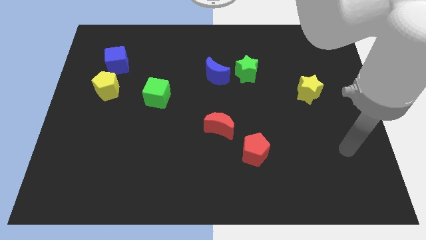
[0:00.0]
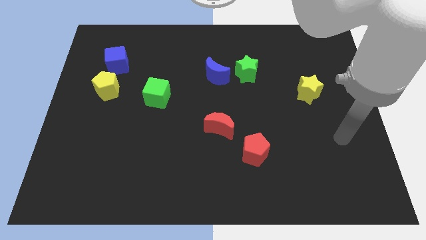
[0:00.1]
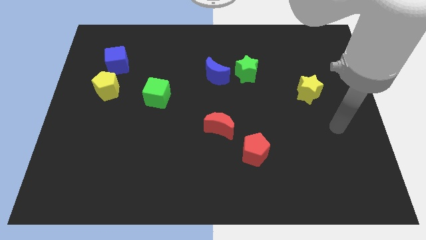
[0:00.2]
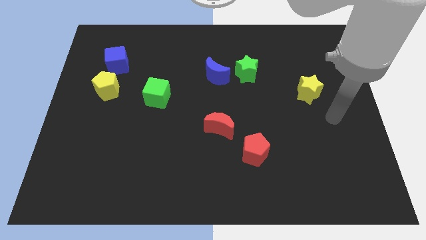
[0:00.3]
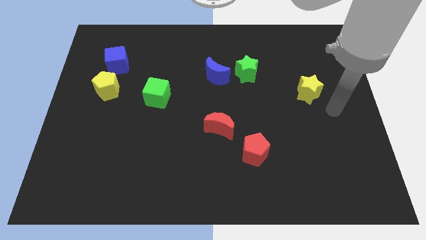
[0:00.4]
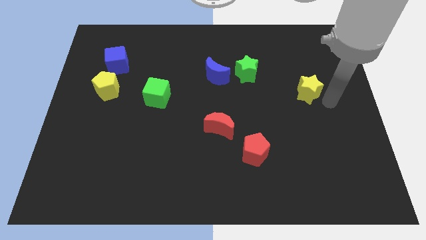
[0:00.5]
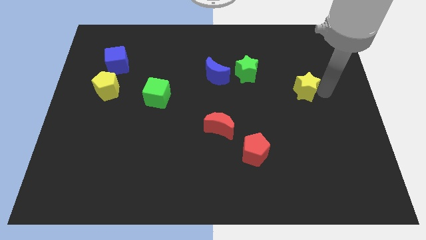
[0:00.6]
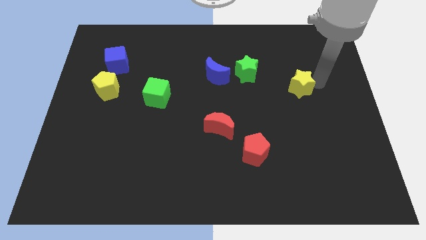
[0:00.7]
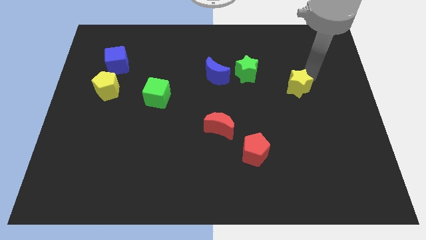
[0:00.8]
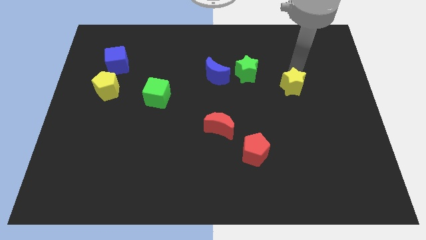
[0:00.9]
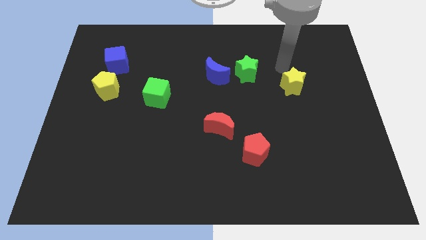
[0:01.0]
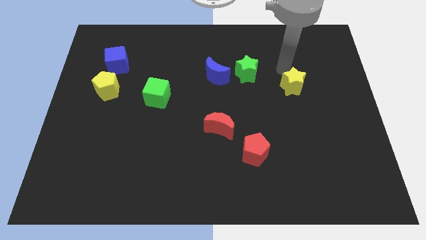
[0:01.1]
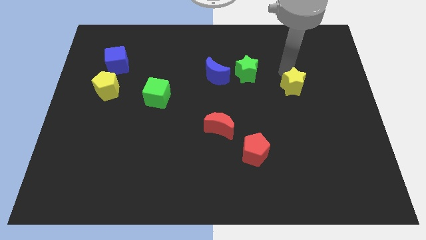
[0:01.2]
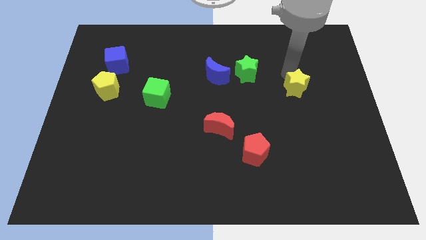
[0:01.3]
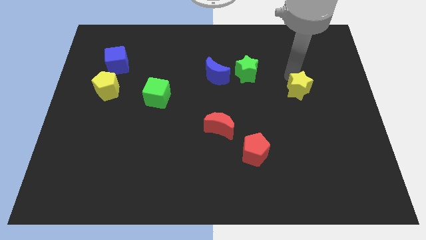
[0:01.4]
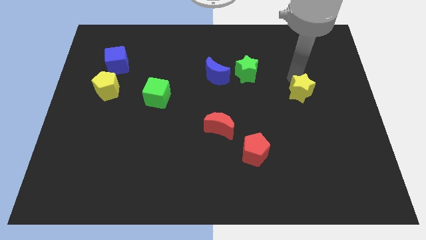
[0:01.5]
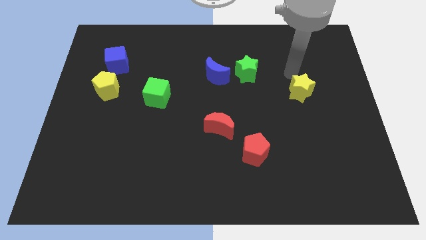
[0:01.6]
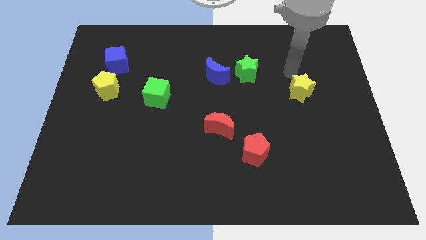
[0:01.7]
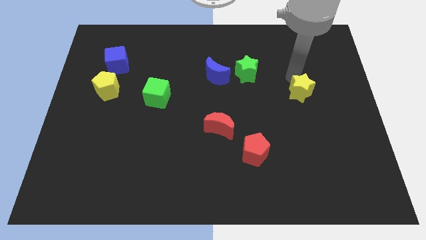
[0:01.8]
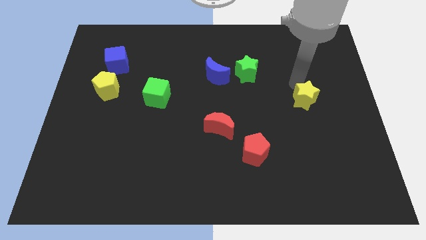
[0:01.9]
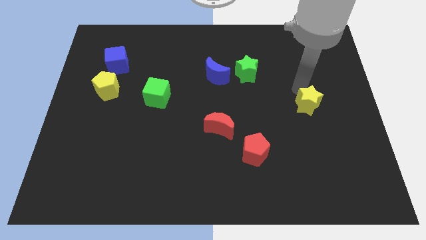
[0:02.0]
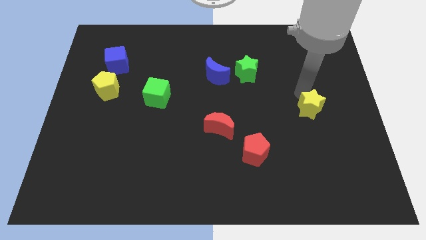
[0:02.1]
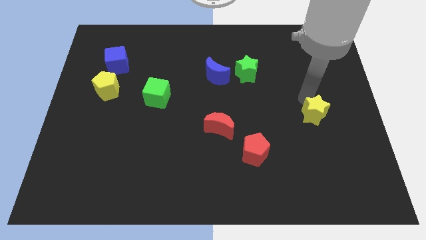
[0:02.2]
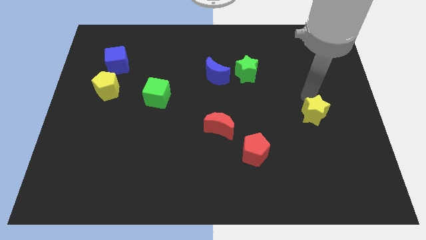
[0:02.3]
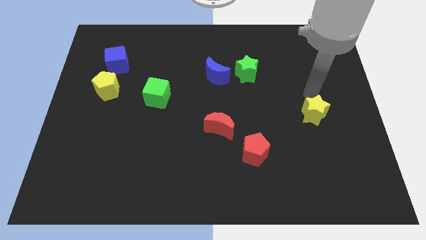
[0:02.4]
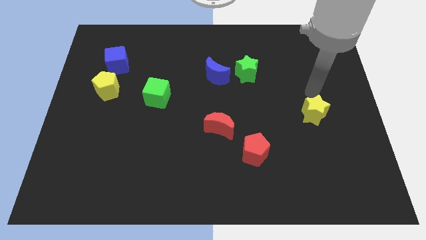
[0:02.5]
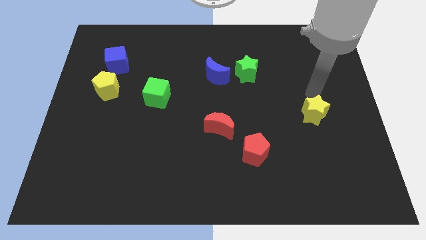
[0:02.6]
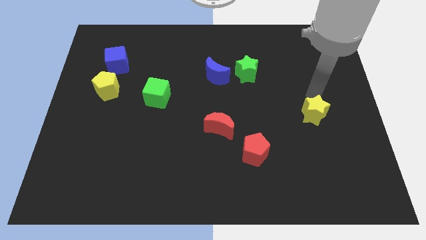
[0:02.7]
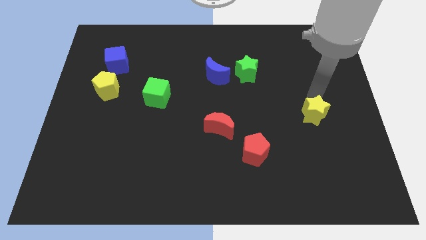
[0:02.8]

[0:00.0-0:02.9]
slightly push the yellow star down

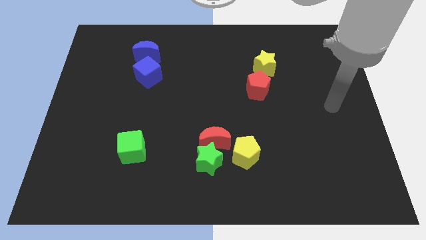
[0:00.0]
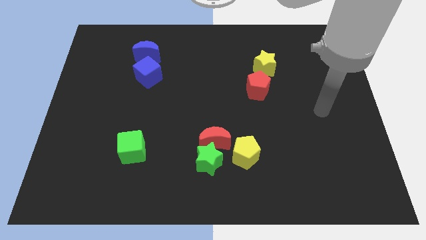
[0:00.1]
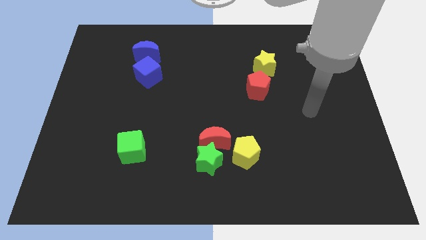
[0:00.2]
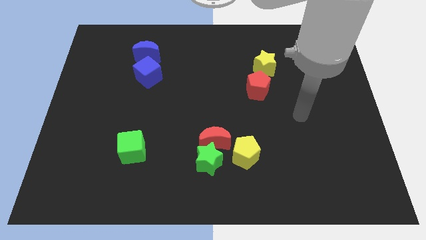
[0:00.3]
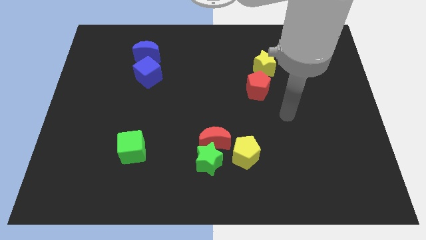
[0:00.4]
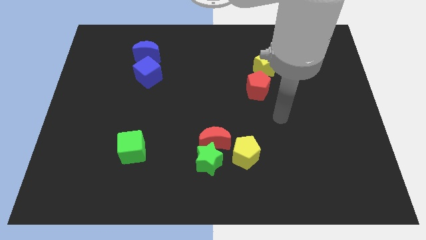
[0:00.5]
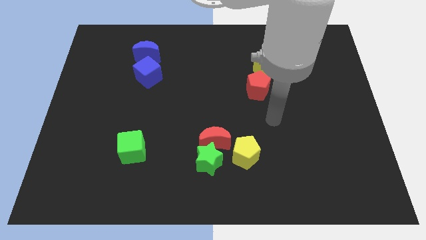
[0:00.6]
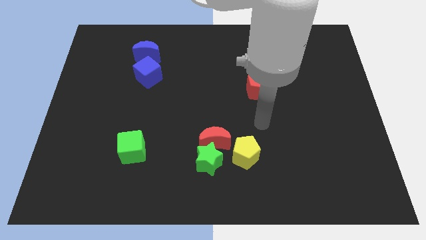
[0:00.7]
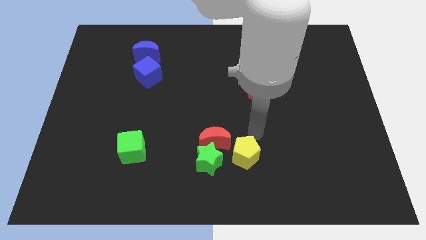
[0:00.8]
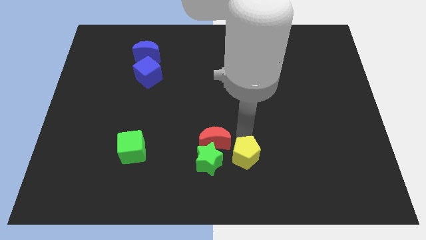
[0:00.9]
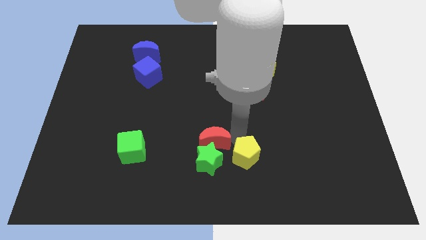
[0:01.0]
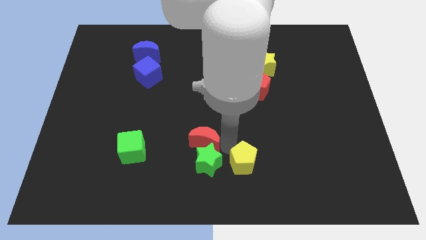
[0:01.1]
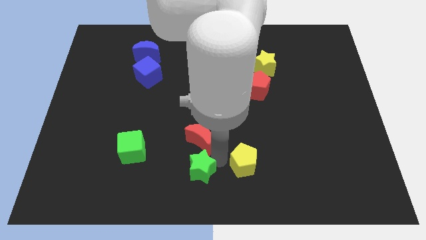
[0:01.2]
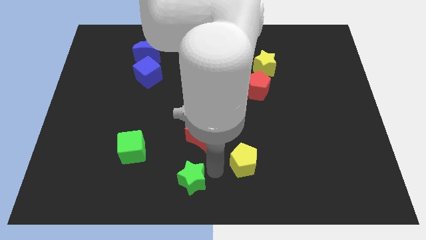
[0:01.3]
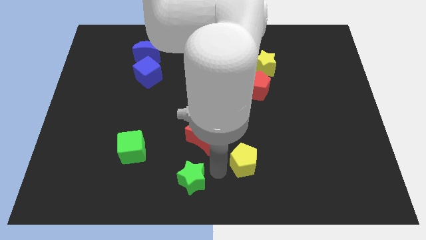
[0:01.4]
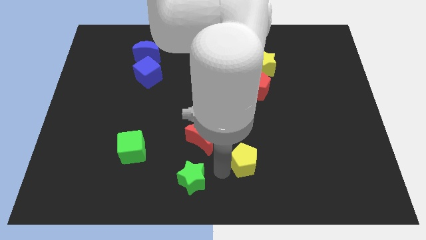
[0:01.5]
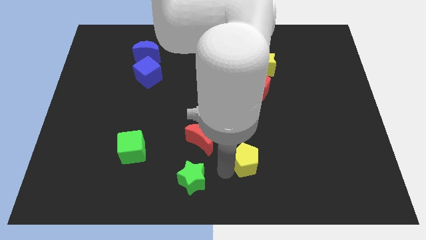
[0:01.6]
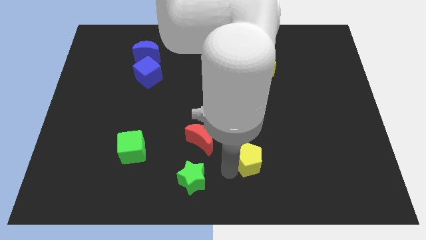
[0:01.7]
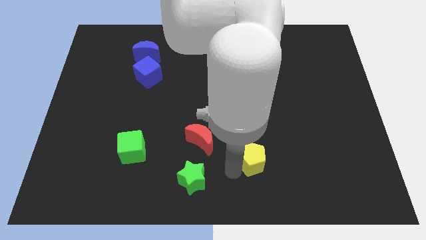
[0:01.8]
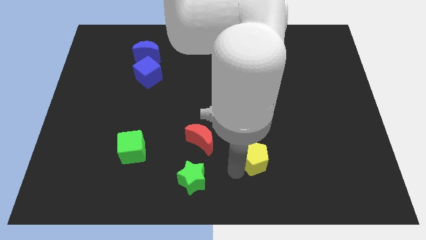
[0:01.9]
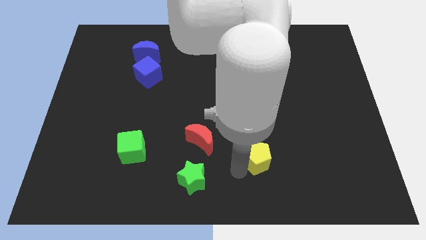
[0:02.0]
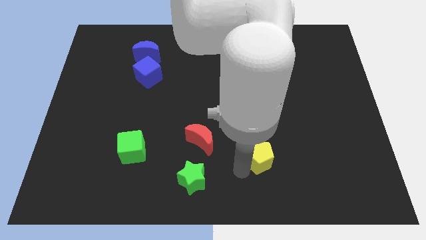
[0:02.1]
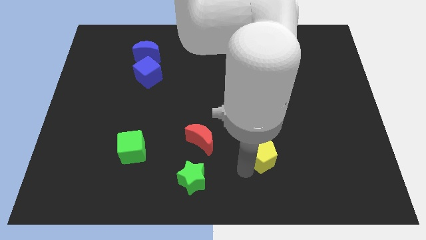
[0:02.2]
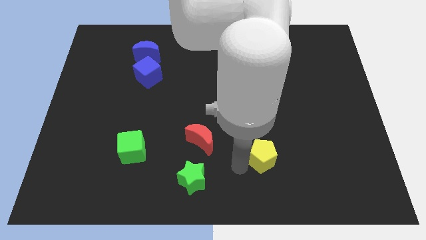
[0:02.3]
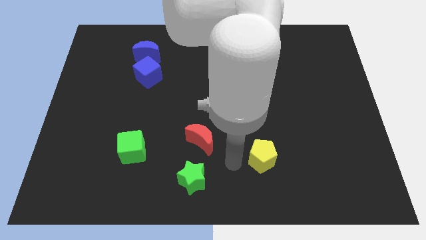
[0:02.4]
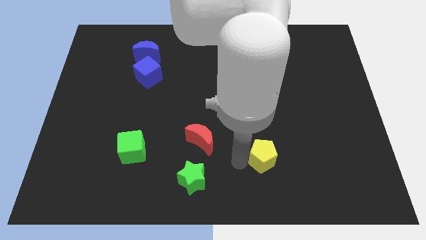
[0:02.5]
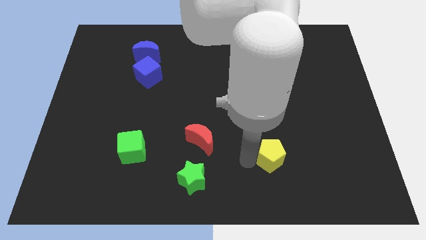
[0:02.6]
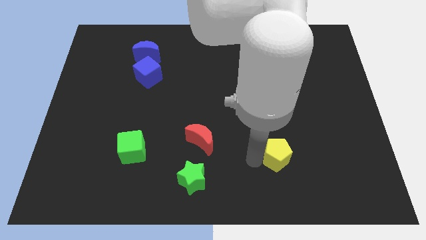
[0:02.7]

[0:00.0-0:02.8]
push the yellow pentagon right a bit

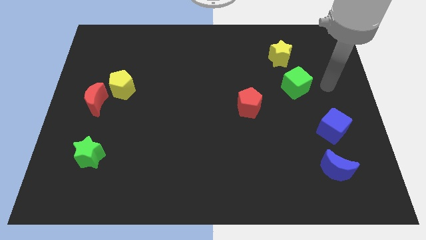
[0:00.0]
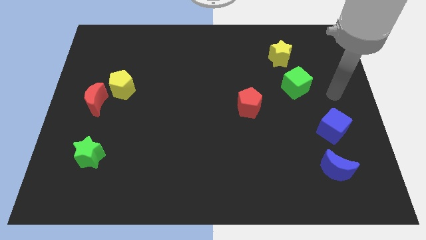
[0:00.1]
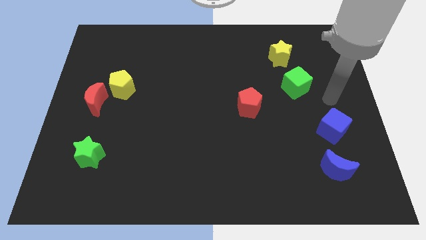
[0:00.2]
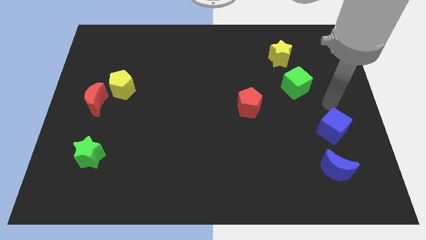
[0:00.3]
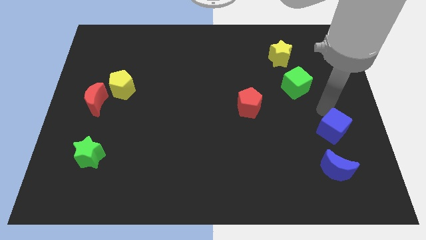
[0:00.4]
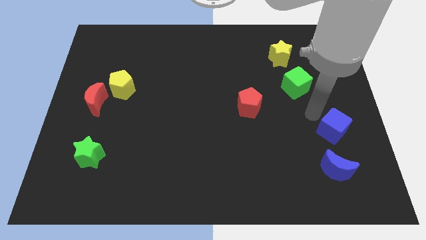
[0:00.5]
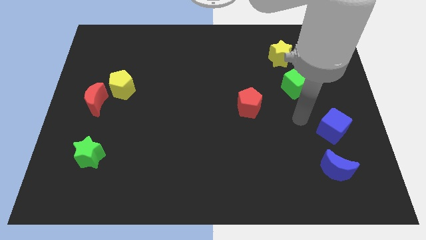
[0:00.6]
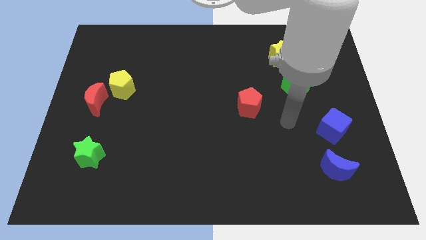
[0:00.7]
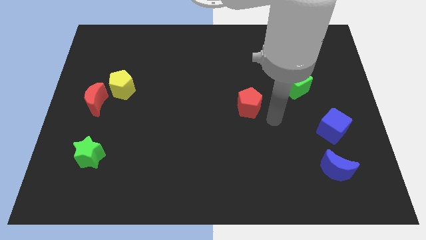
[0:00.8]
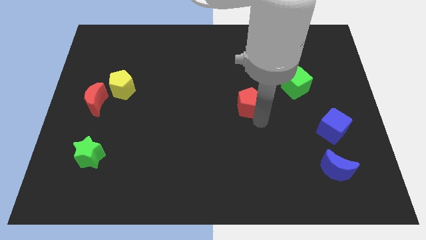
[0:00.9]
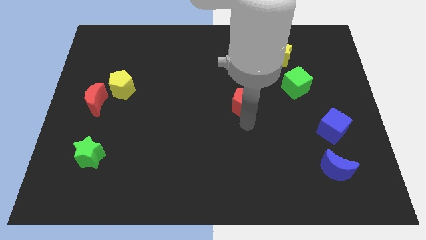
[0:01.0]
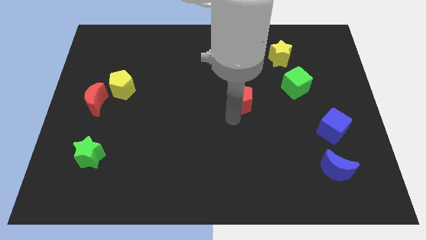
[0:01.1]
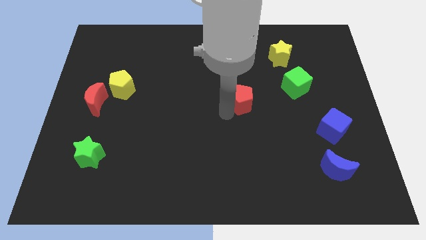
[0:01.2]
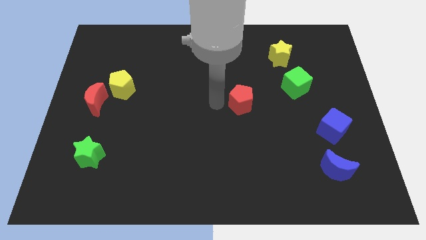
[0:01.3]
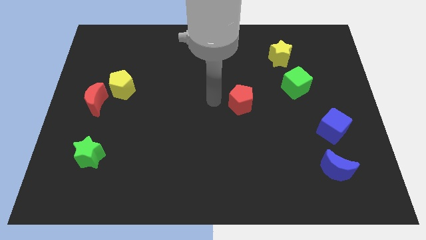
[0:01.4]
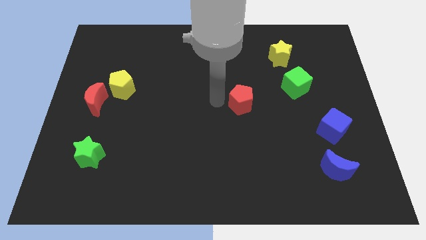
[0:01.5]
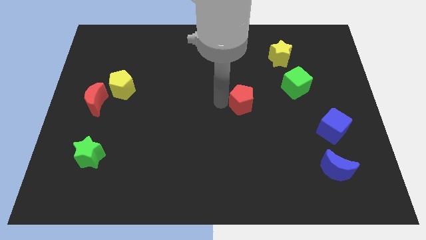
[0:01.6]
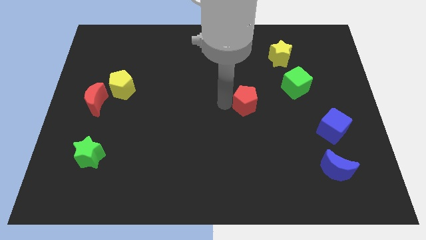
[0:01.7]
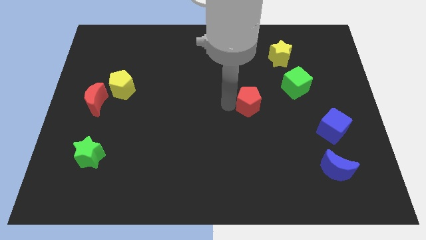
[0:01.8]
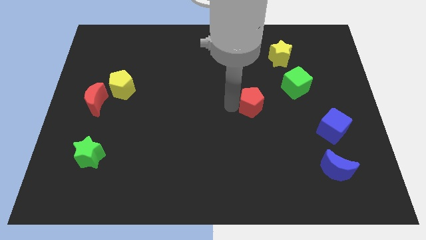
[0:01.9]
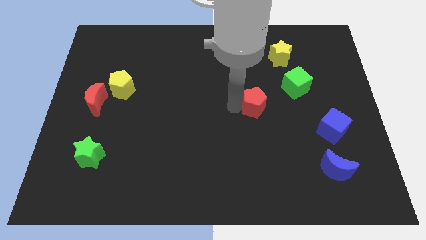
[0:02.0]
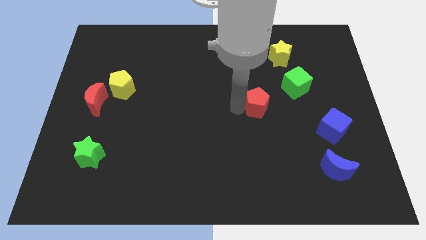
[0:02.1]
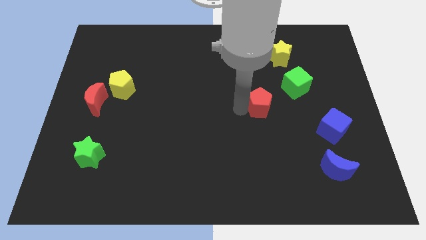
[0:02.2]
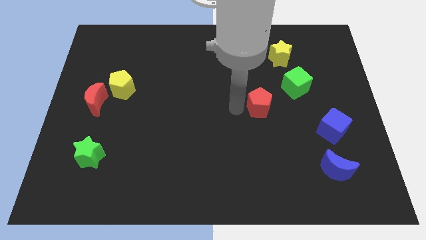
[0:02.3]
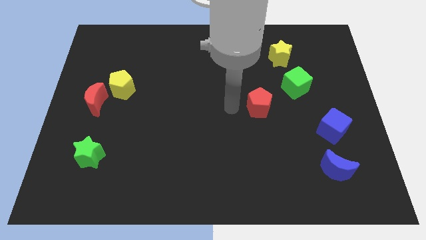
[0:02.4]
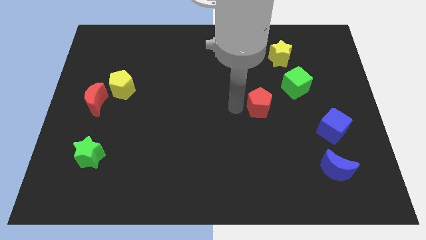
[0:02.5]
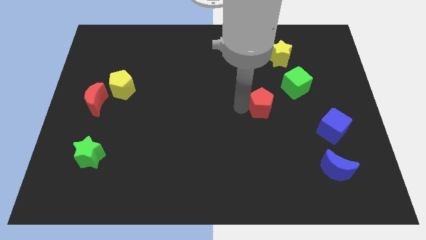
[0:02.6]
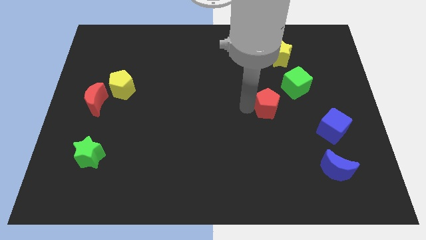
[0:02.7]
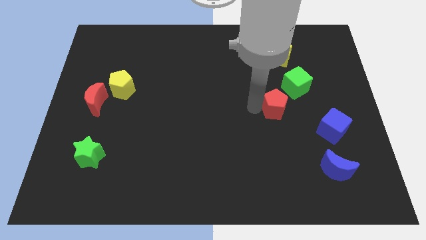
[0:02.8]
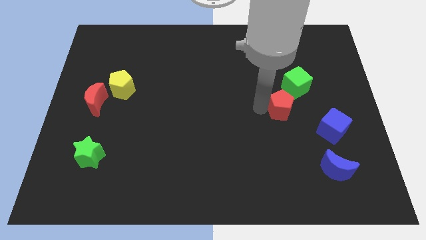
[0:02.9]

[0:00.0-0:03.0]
move the red pentagon a bit to the right

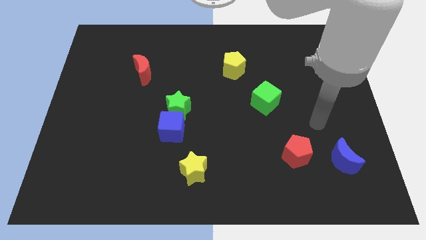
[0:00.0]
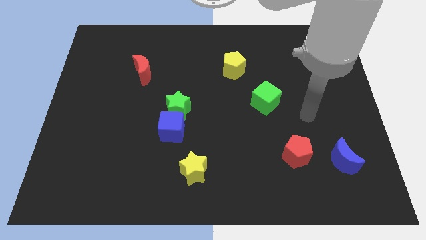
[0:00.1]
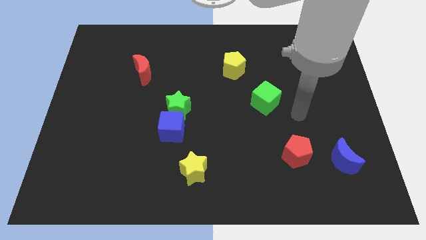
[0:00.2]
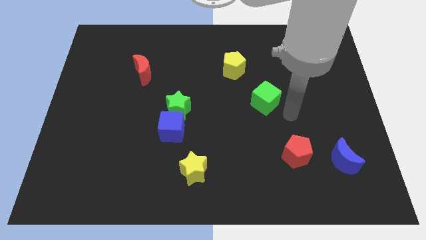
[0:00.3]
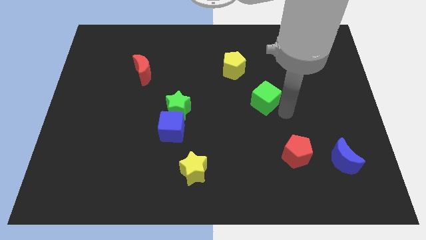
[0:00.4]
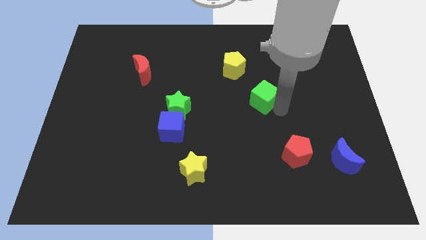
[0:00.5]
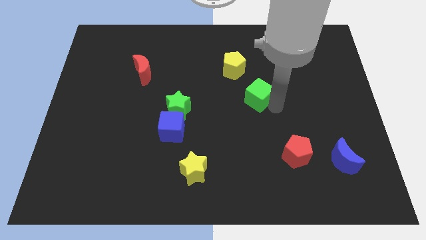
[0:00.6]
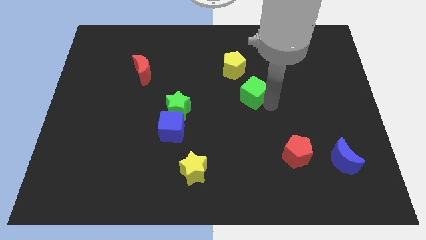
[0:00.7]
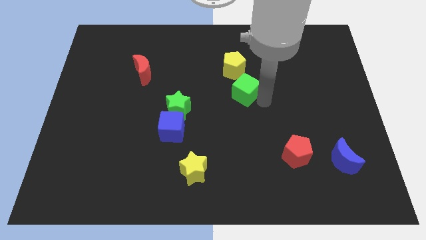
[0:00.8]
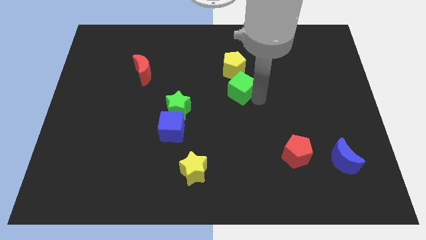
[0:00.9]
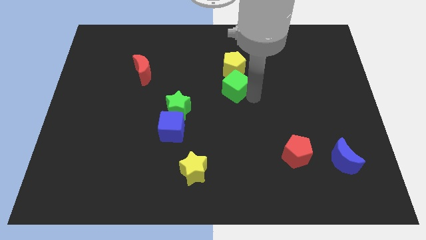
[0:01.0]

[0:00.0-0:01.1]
slightly move the green cube upwards and then left
